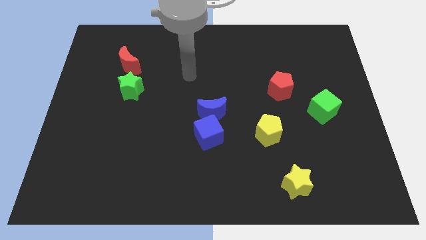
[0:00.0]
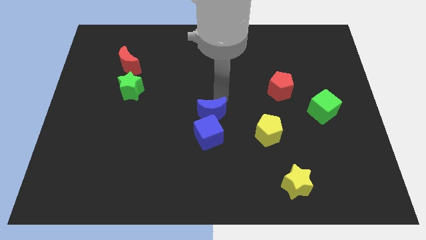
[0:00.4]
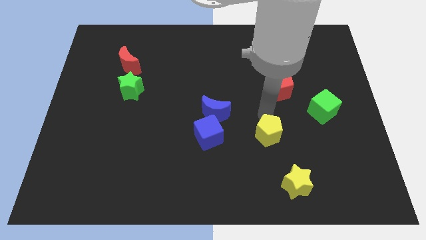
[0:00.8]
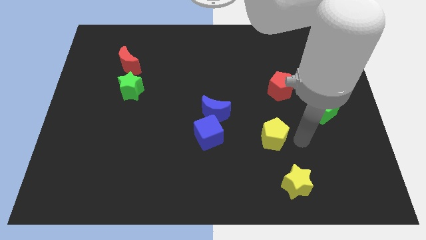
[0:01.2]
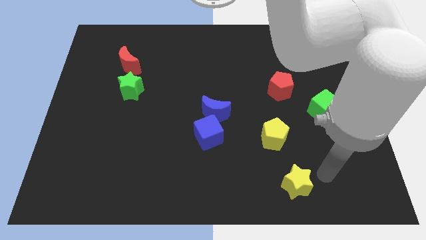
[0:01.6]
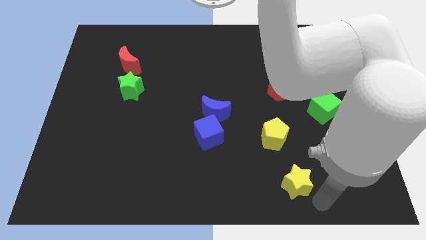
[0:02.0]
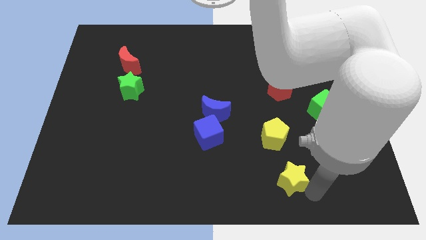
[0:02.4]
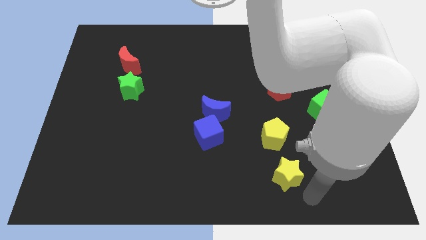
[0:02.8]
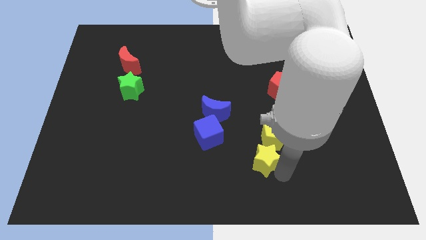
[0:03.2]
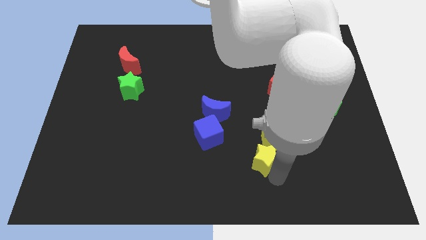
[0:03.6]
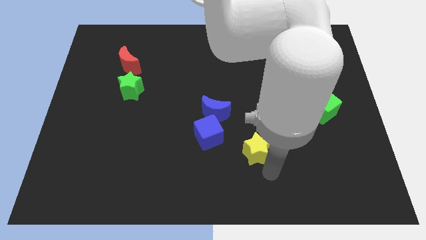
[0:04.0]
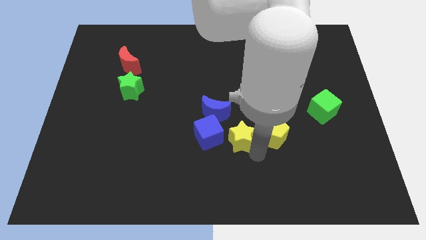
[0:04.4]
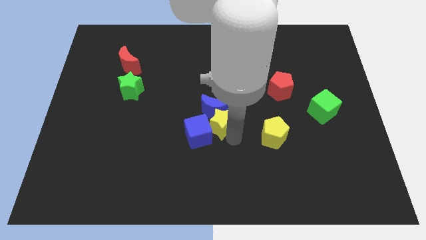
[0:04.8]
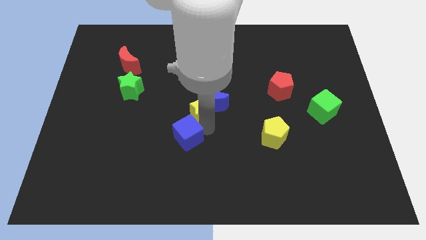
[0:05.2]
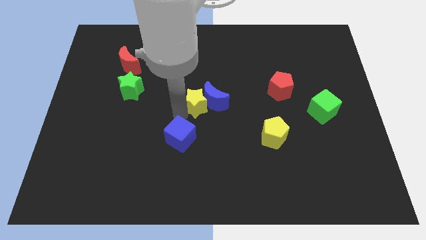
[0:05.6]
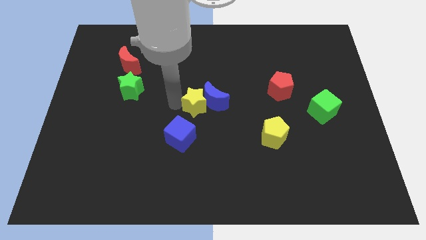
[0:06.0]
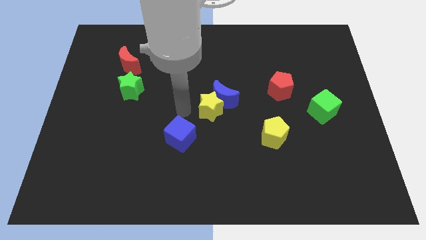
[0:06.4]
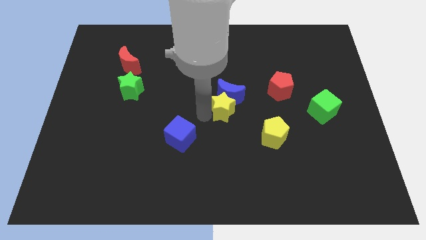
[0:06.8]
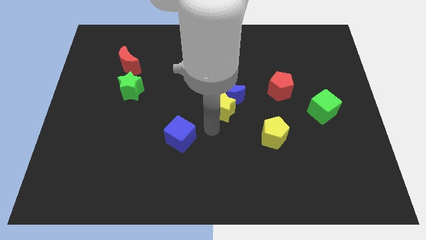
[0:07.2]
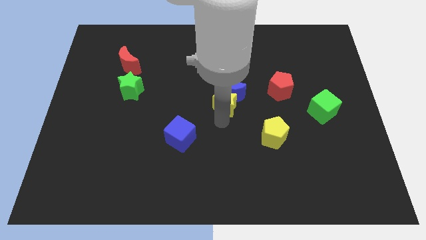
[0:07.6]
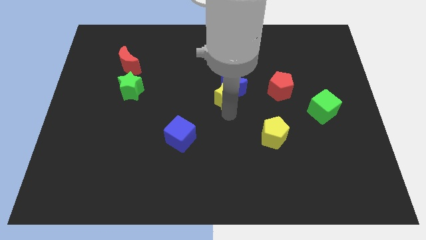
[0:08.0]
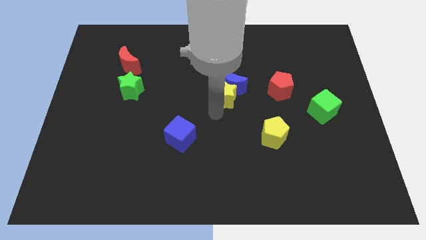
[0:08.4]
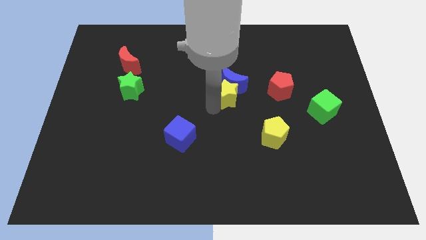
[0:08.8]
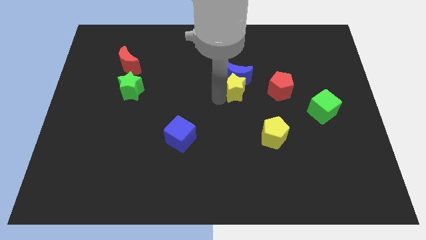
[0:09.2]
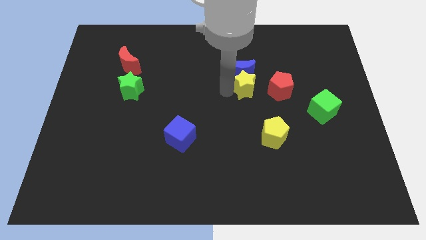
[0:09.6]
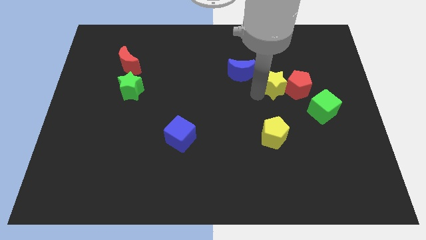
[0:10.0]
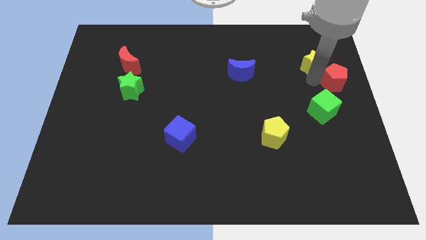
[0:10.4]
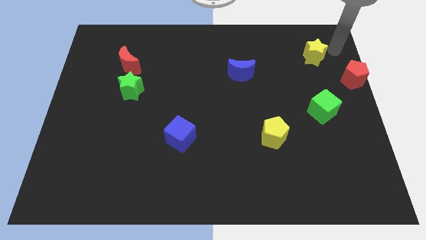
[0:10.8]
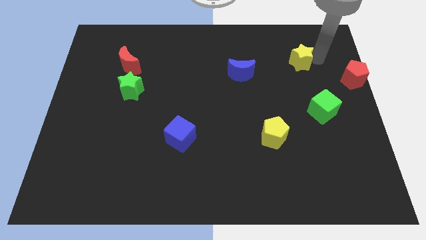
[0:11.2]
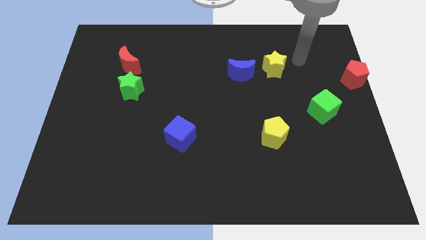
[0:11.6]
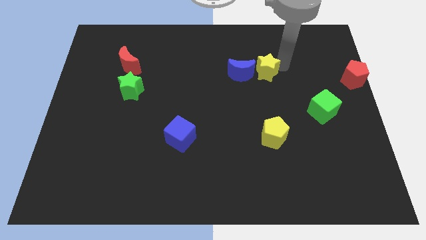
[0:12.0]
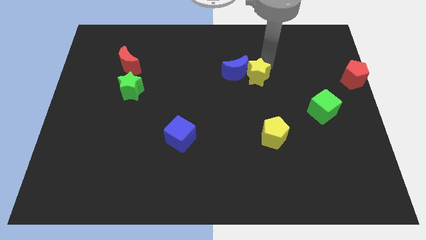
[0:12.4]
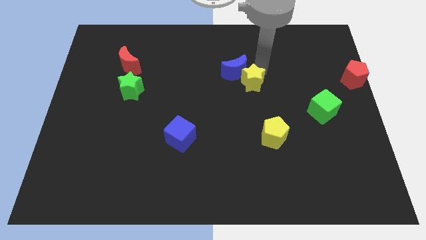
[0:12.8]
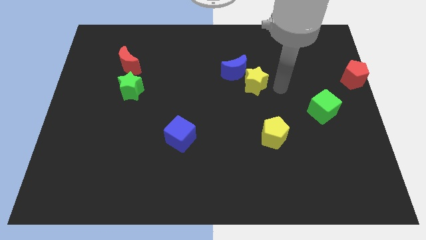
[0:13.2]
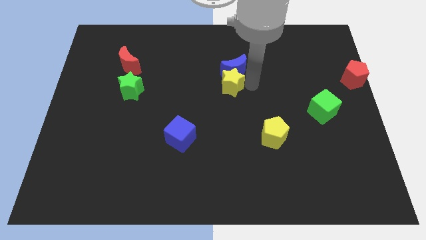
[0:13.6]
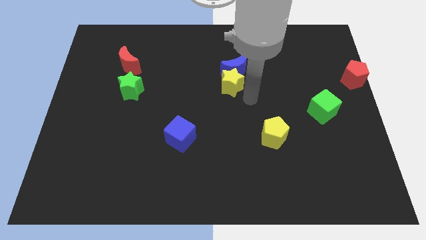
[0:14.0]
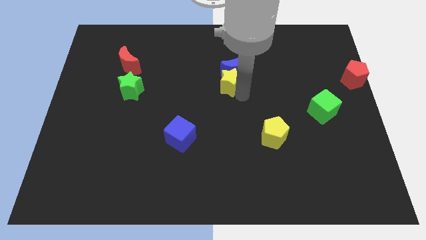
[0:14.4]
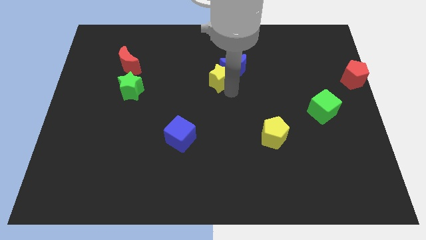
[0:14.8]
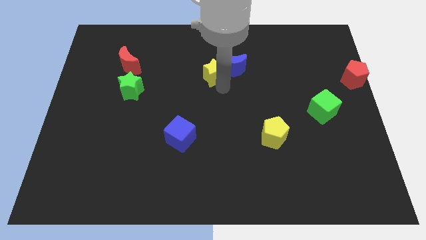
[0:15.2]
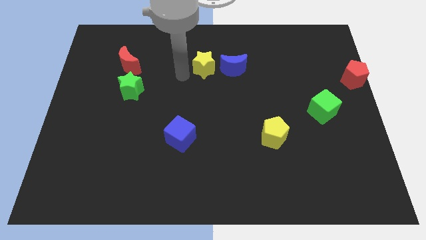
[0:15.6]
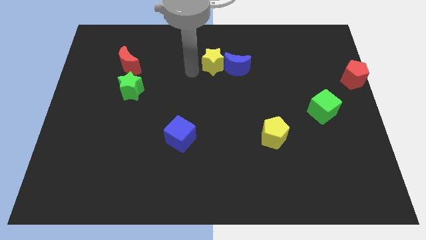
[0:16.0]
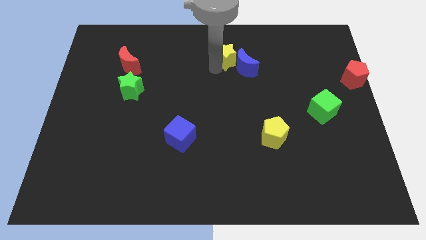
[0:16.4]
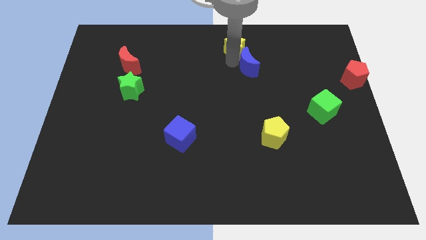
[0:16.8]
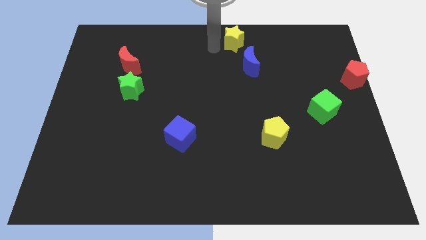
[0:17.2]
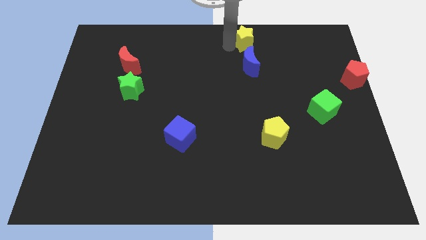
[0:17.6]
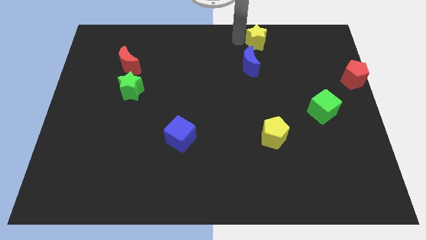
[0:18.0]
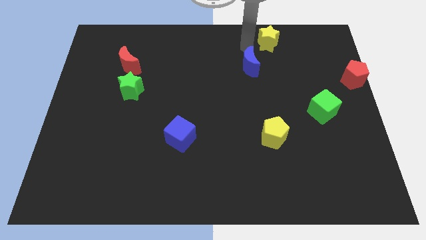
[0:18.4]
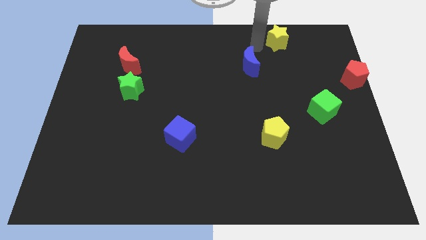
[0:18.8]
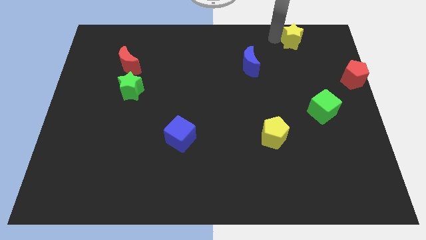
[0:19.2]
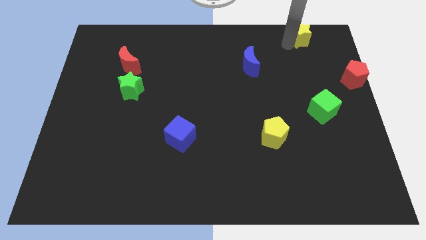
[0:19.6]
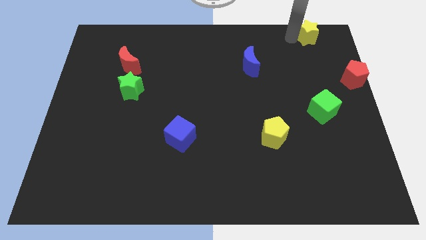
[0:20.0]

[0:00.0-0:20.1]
slide the yellow star to the upper right corner

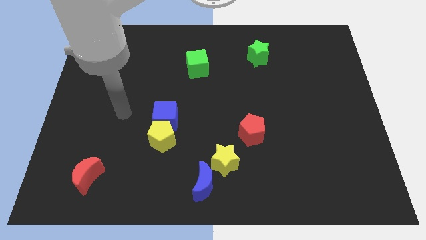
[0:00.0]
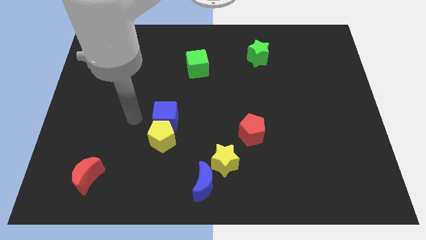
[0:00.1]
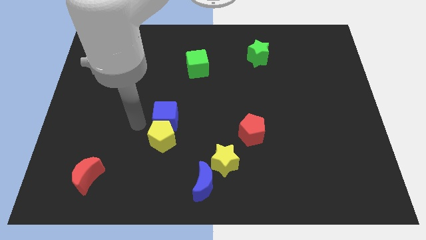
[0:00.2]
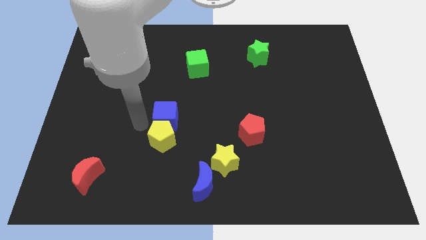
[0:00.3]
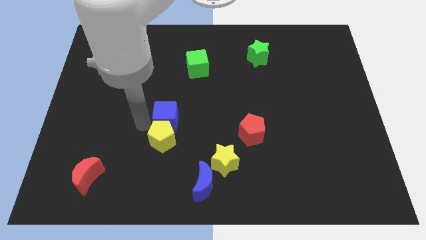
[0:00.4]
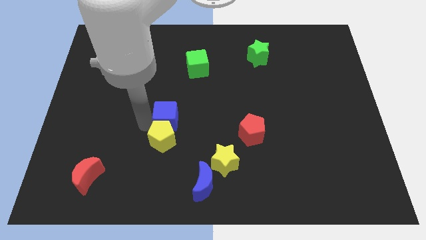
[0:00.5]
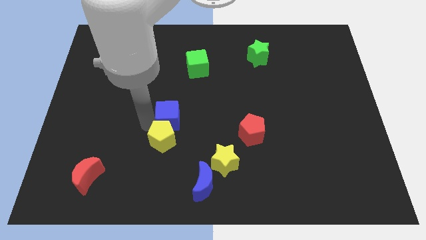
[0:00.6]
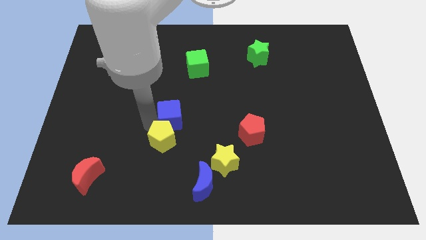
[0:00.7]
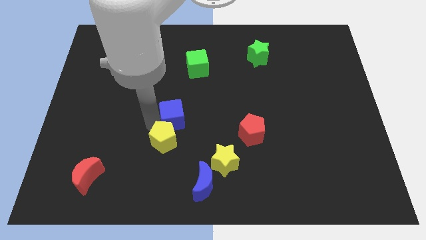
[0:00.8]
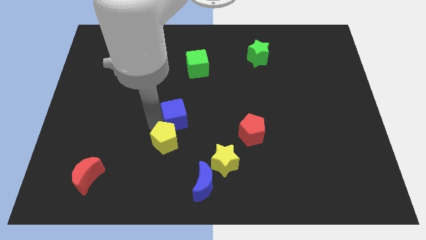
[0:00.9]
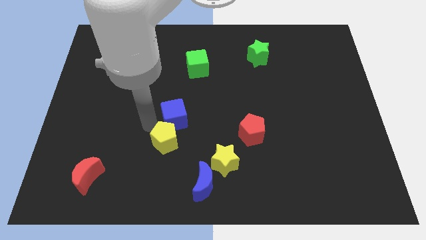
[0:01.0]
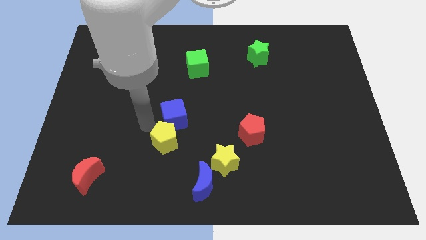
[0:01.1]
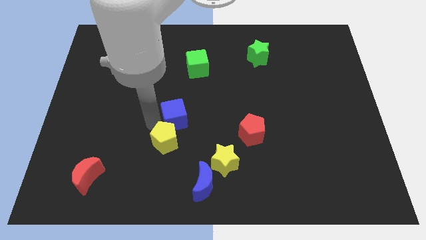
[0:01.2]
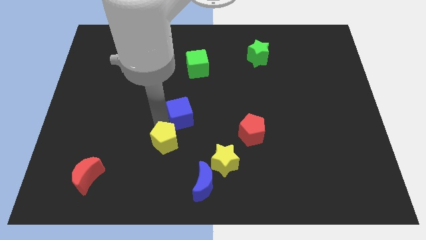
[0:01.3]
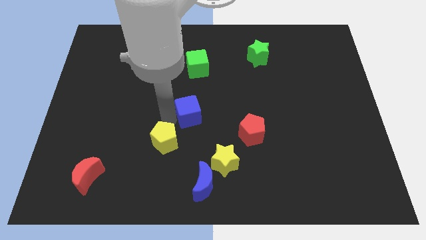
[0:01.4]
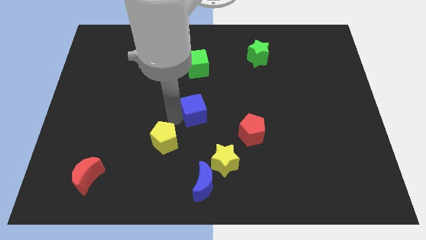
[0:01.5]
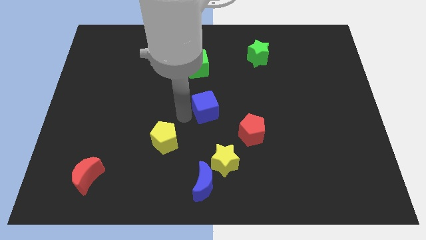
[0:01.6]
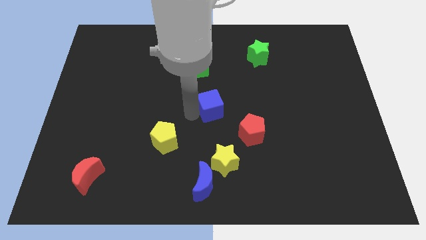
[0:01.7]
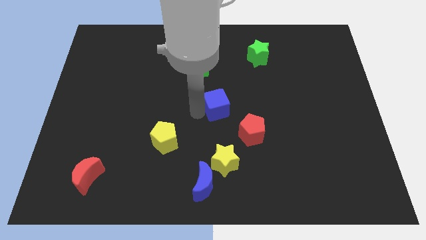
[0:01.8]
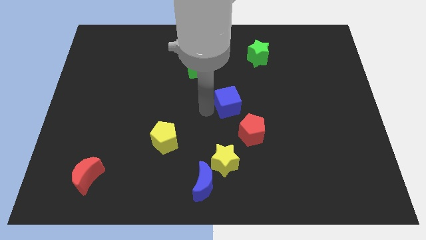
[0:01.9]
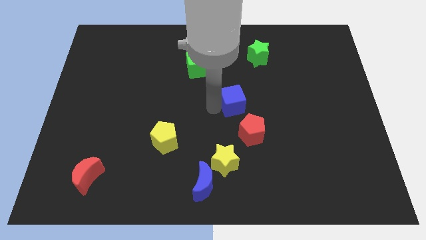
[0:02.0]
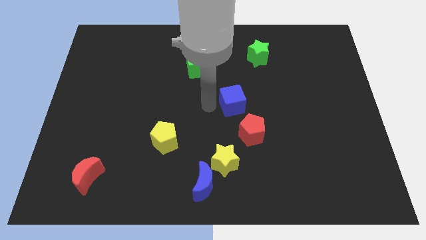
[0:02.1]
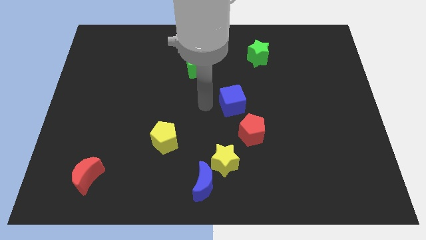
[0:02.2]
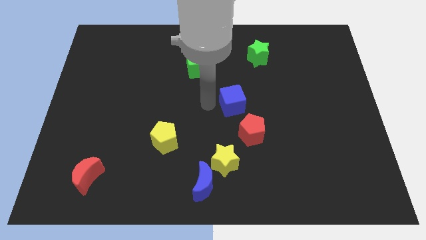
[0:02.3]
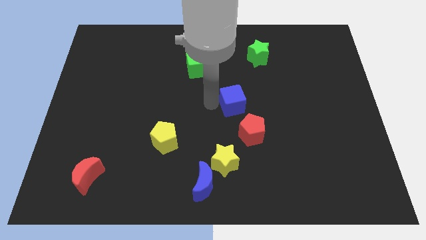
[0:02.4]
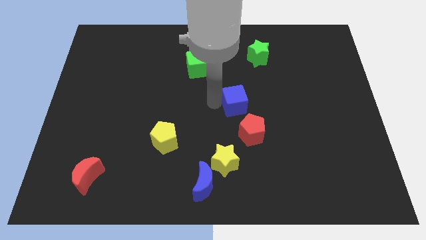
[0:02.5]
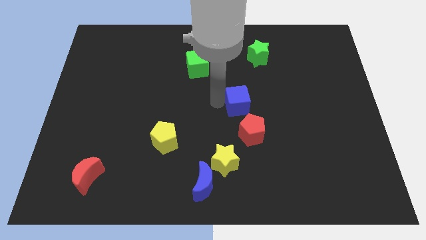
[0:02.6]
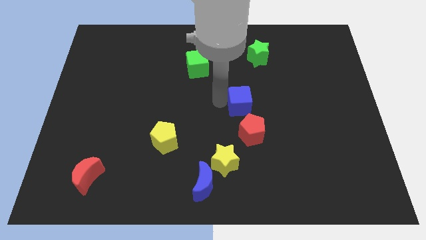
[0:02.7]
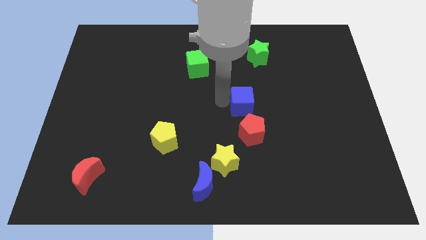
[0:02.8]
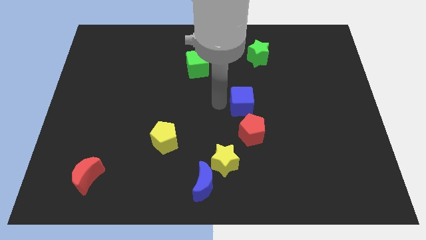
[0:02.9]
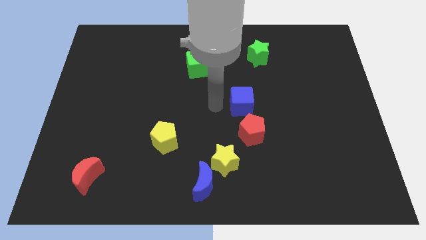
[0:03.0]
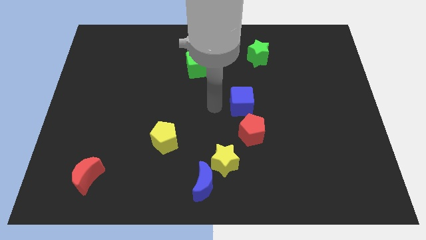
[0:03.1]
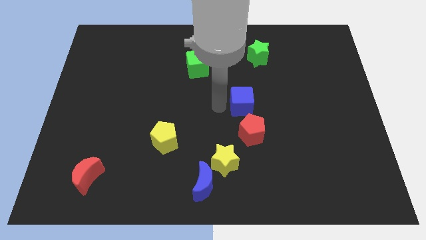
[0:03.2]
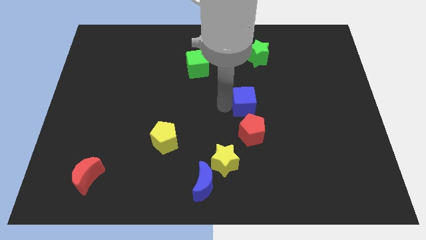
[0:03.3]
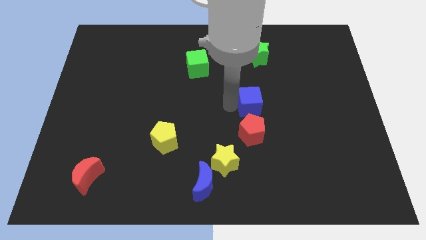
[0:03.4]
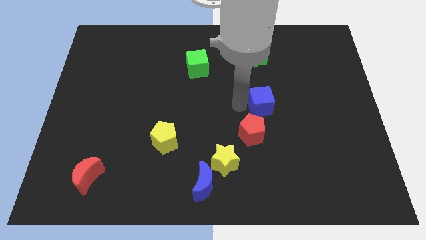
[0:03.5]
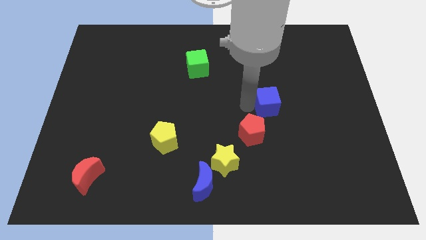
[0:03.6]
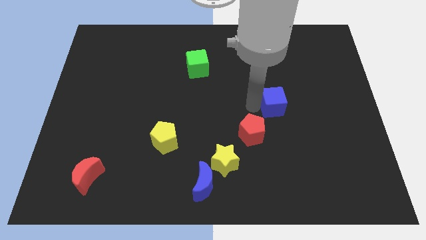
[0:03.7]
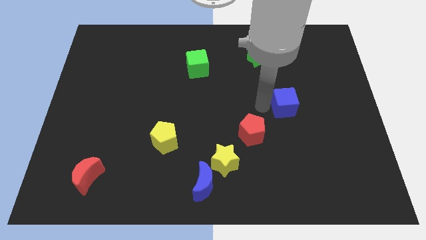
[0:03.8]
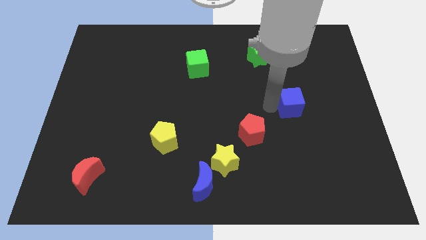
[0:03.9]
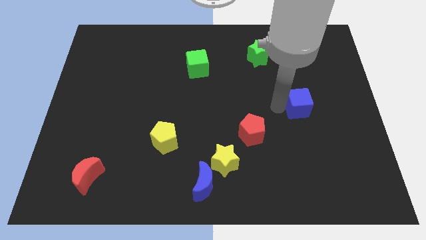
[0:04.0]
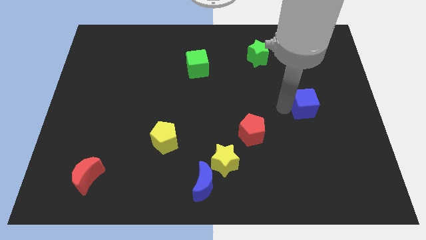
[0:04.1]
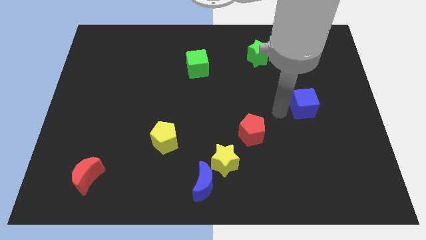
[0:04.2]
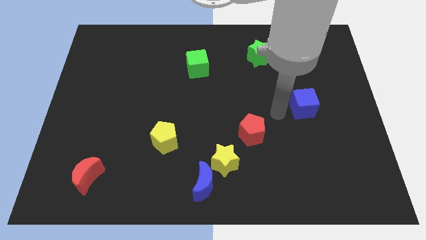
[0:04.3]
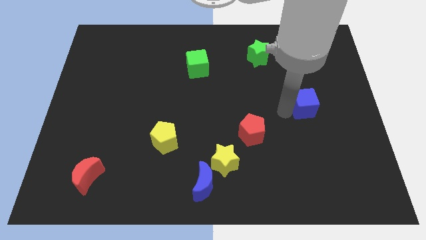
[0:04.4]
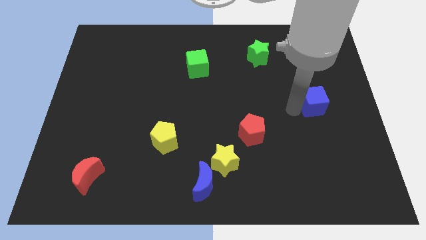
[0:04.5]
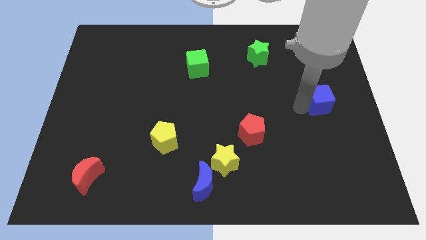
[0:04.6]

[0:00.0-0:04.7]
slide the blue cube to the right side
